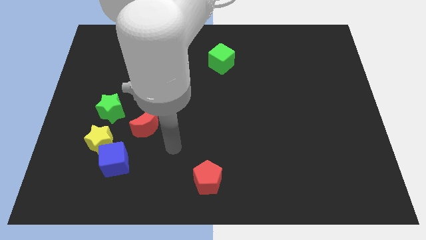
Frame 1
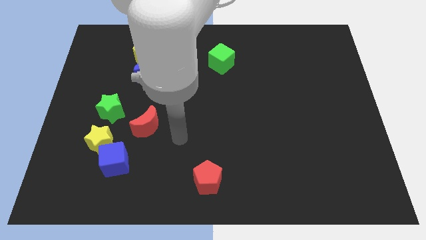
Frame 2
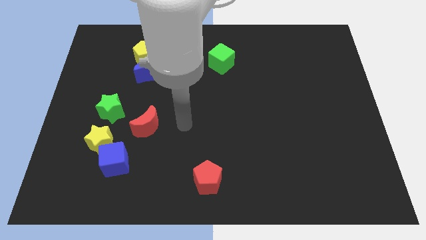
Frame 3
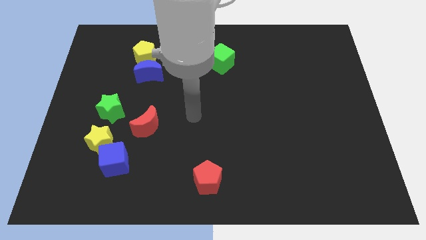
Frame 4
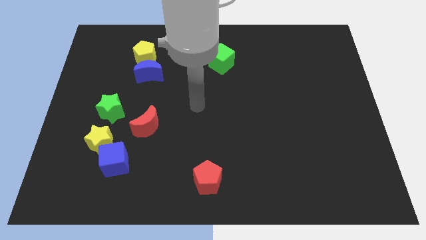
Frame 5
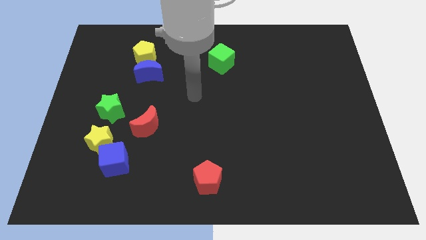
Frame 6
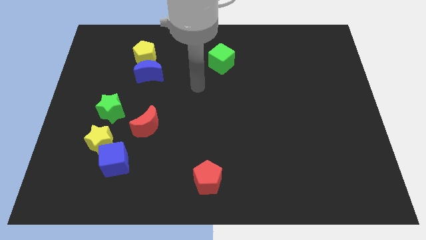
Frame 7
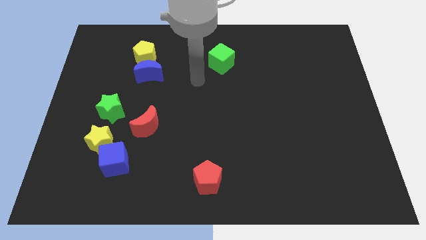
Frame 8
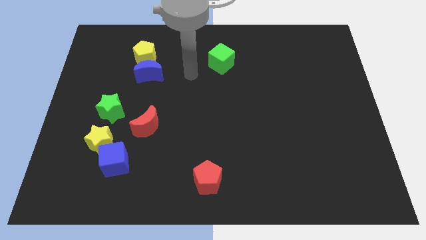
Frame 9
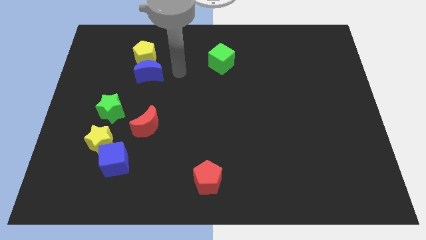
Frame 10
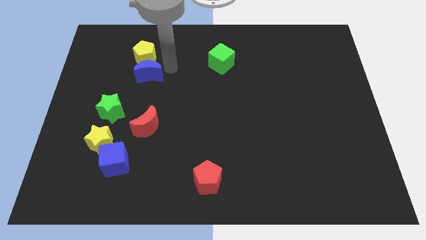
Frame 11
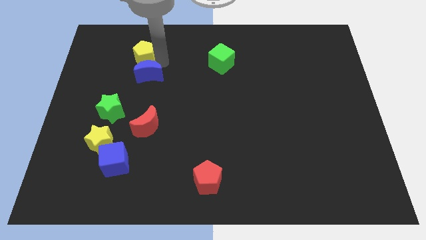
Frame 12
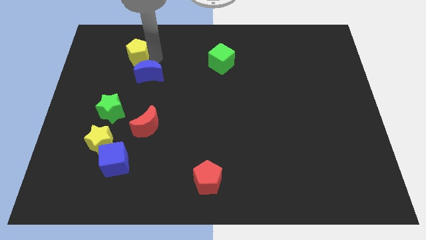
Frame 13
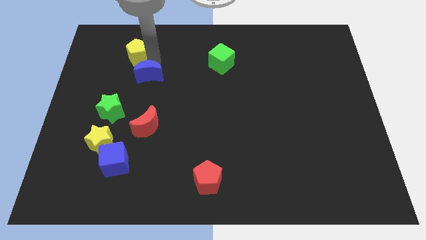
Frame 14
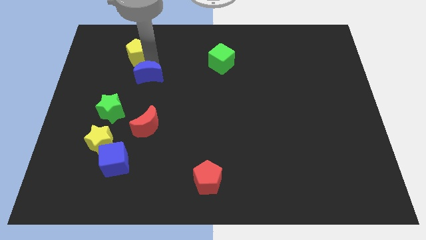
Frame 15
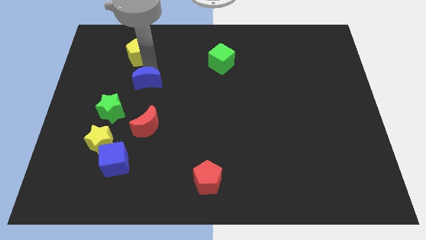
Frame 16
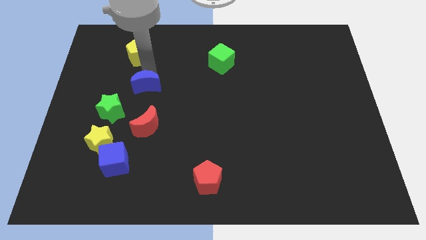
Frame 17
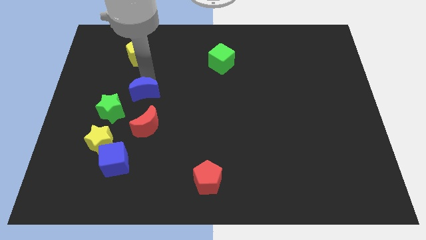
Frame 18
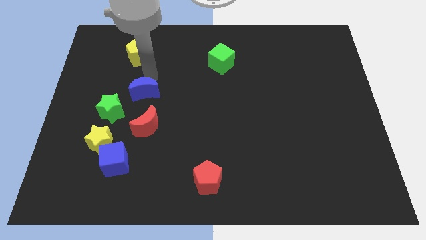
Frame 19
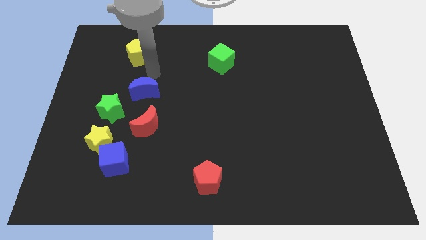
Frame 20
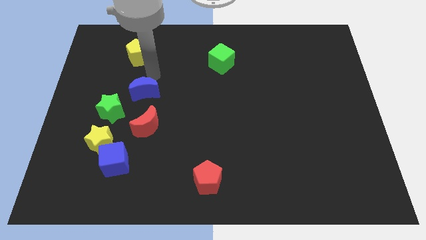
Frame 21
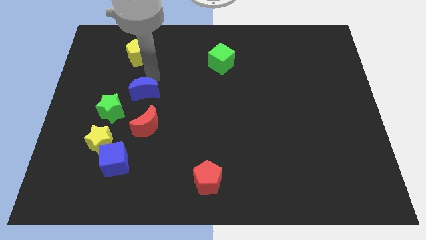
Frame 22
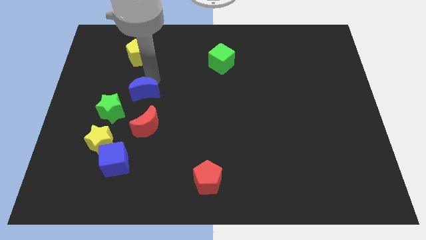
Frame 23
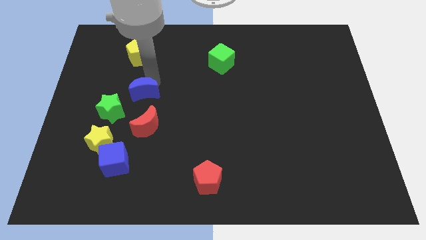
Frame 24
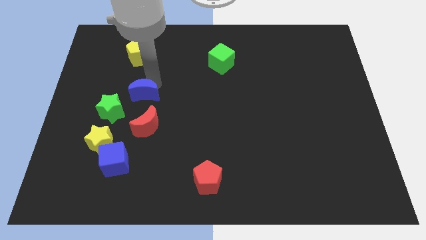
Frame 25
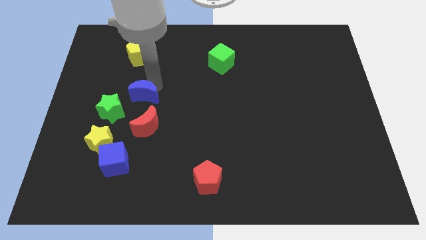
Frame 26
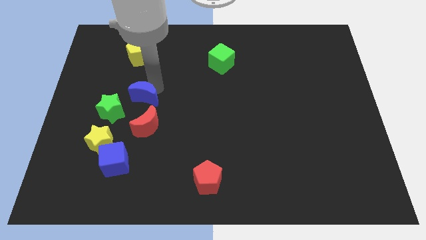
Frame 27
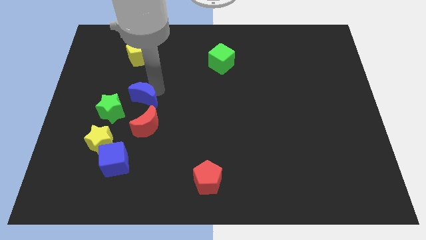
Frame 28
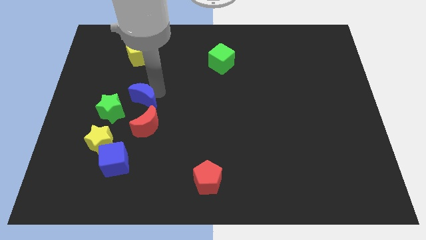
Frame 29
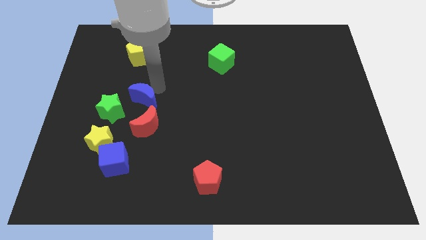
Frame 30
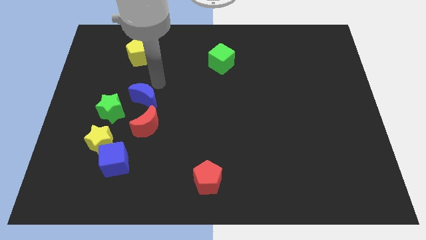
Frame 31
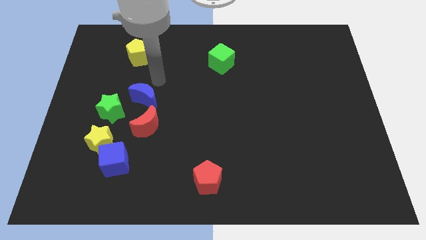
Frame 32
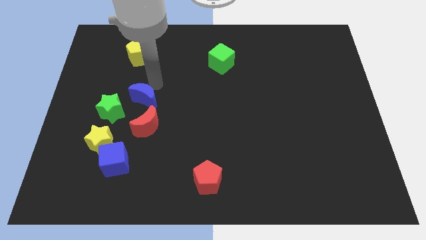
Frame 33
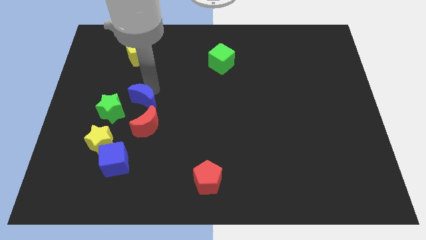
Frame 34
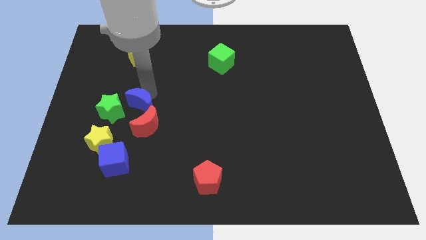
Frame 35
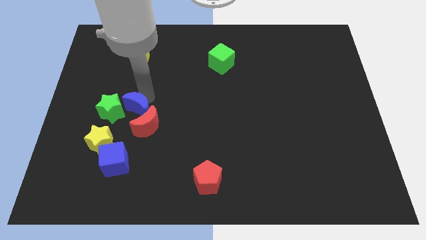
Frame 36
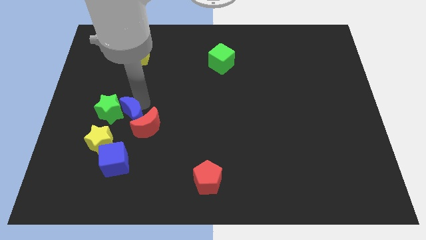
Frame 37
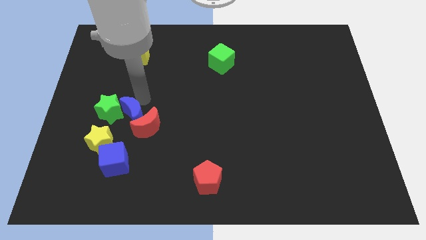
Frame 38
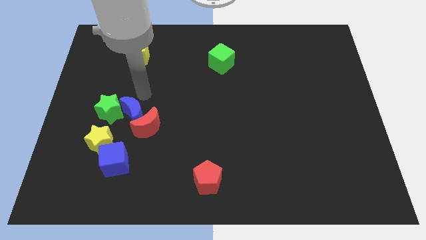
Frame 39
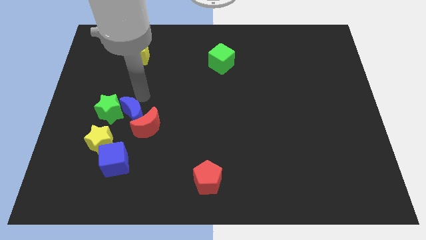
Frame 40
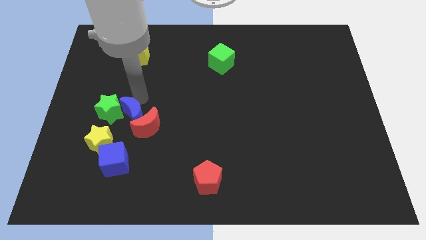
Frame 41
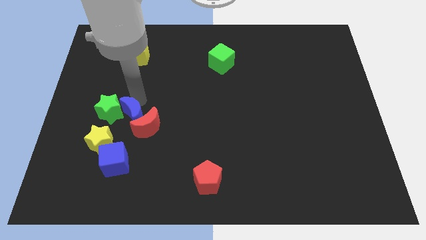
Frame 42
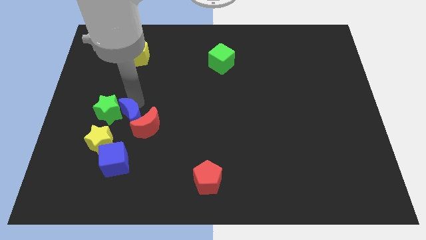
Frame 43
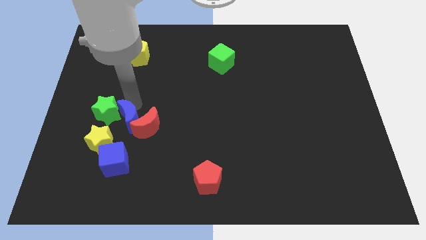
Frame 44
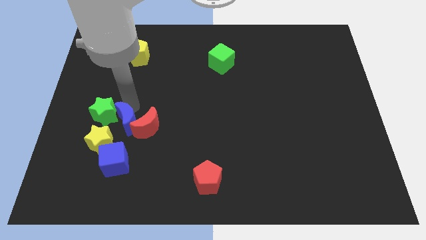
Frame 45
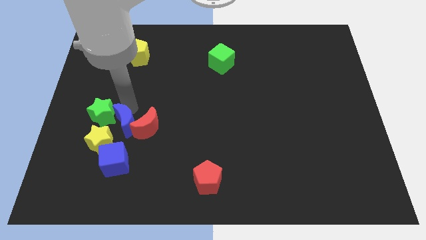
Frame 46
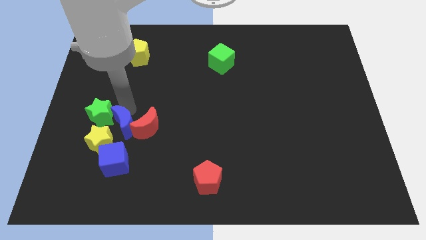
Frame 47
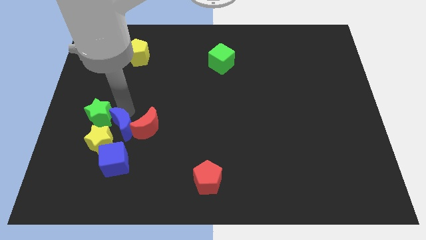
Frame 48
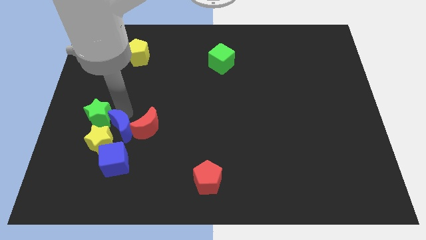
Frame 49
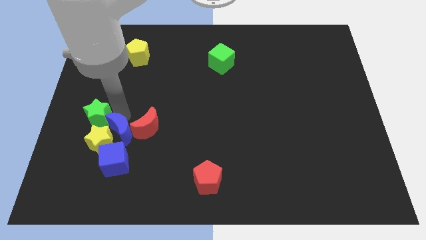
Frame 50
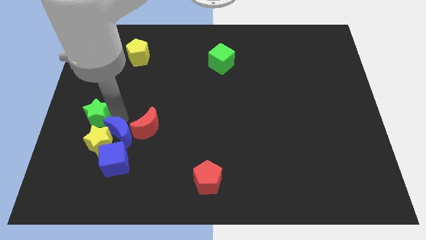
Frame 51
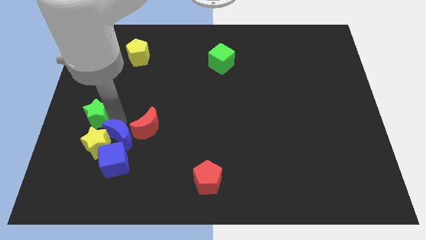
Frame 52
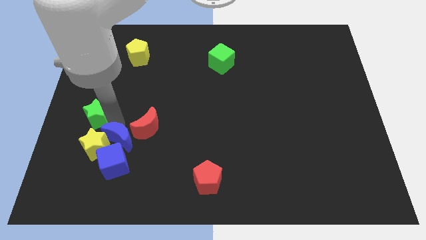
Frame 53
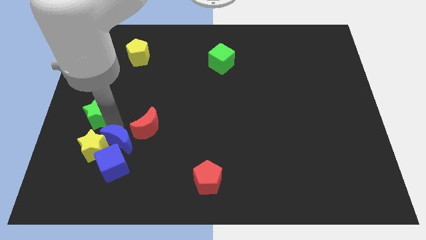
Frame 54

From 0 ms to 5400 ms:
slide the blue moon close to the blue cube

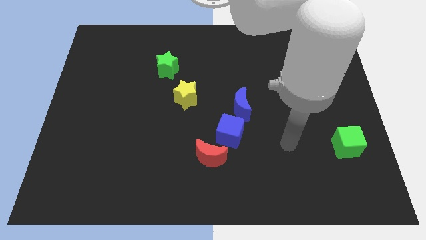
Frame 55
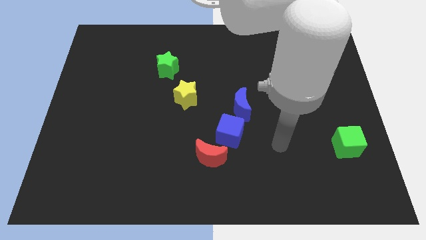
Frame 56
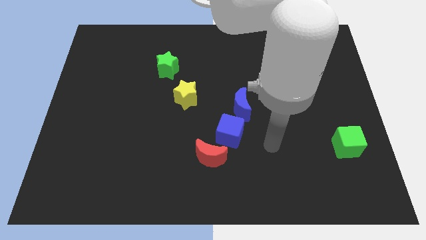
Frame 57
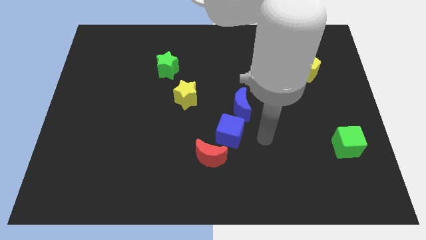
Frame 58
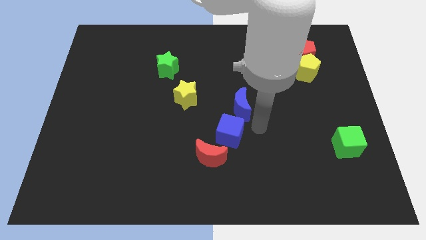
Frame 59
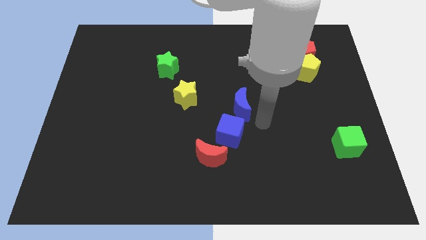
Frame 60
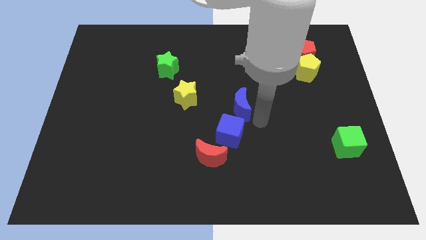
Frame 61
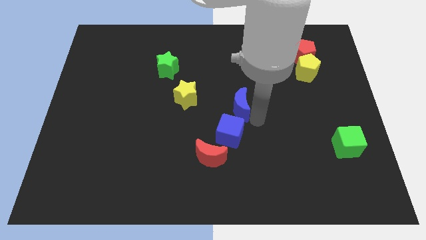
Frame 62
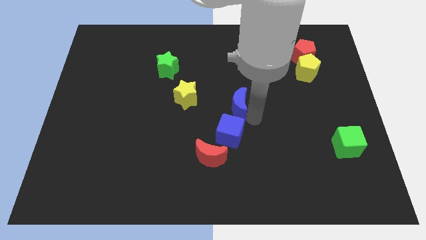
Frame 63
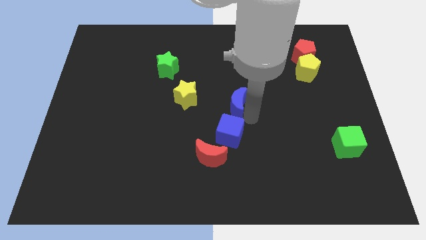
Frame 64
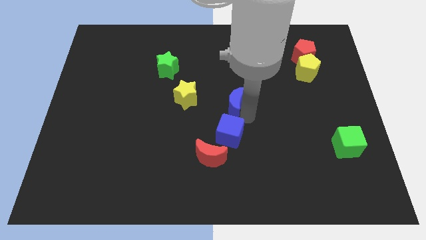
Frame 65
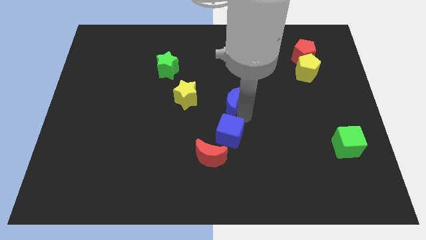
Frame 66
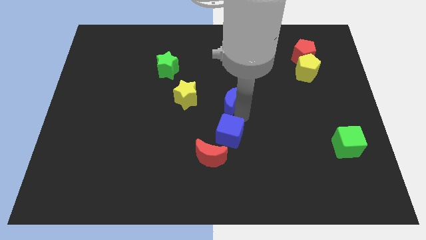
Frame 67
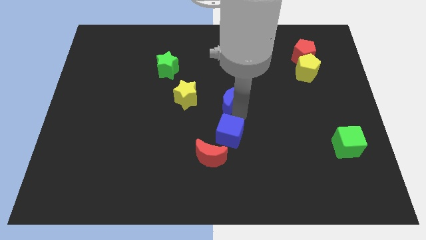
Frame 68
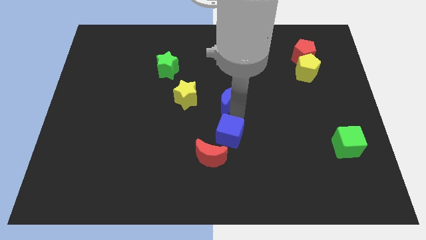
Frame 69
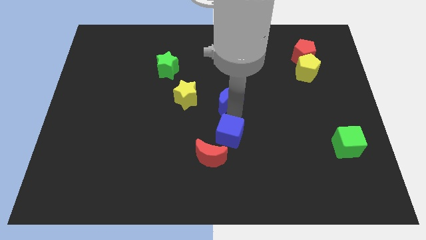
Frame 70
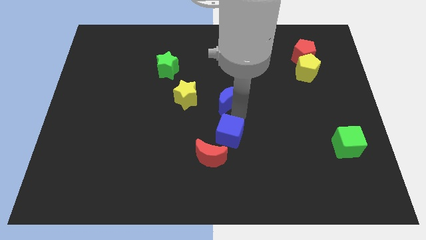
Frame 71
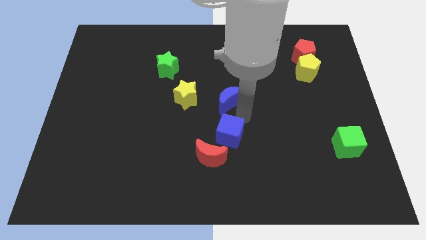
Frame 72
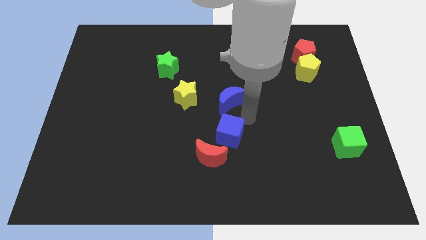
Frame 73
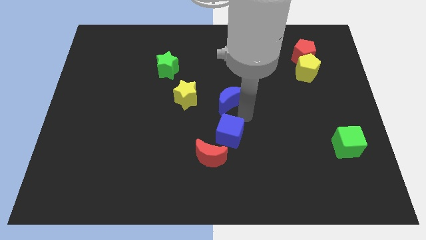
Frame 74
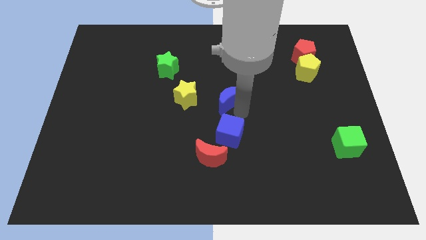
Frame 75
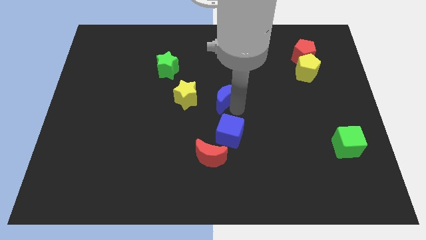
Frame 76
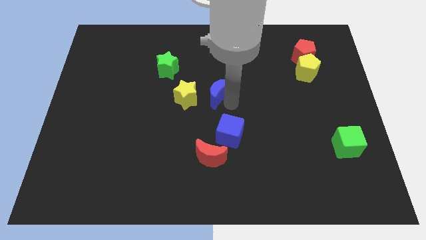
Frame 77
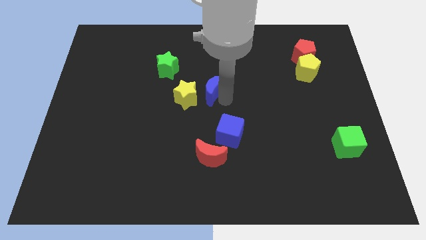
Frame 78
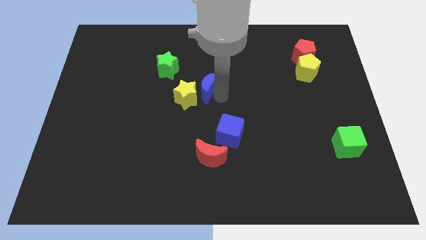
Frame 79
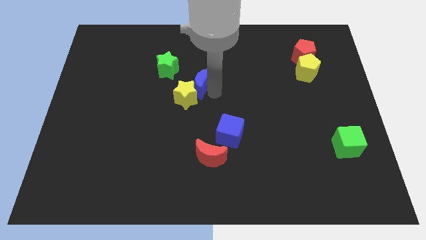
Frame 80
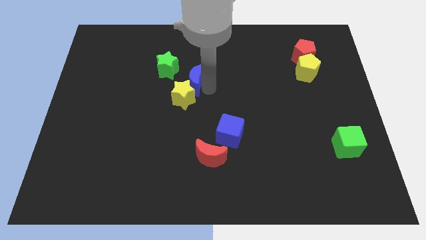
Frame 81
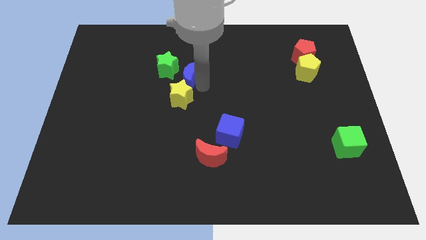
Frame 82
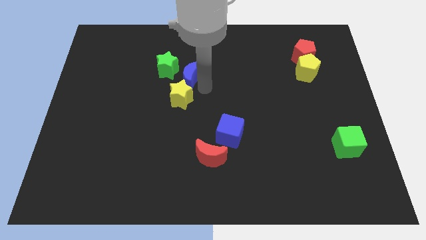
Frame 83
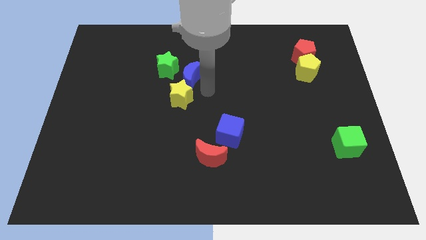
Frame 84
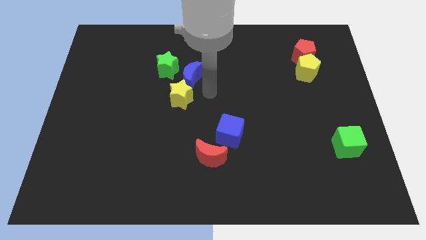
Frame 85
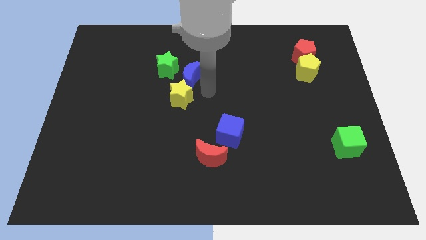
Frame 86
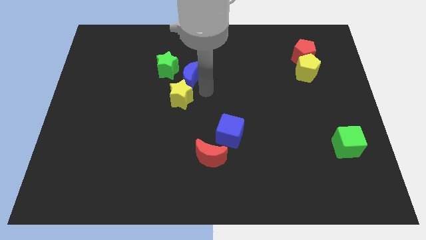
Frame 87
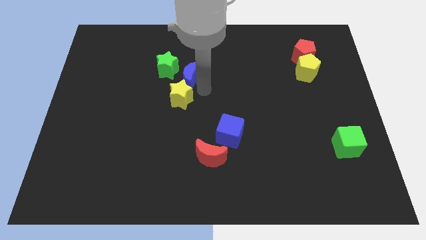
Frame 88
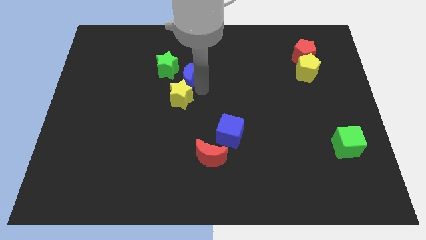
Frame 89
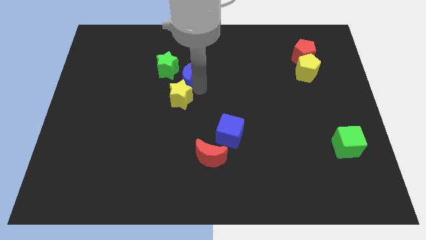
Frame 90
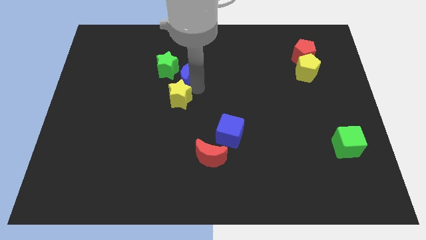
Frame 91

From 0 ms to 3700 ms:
put the blue moon next to the green star
